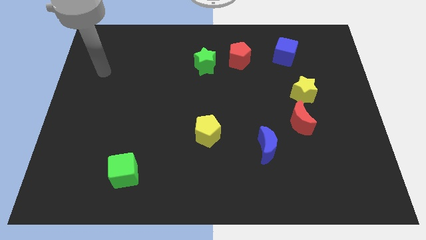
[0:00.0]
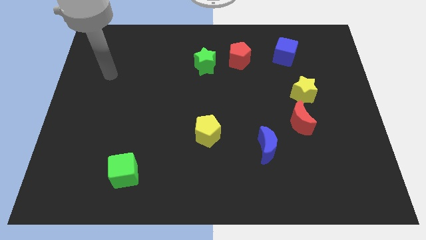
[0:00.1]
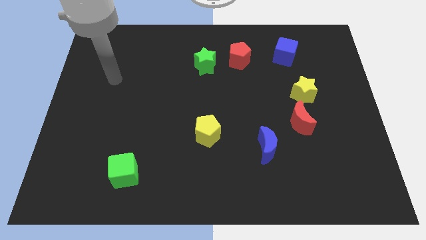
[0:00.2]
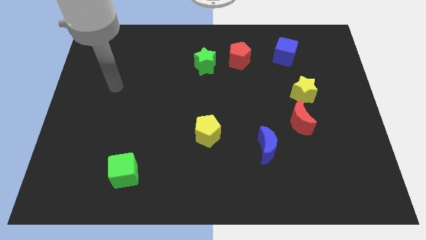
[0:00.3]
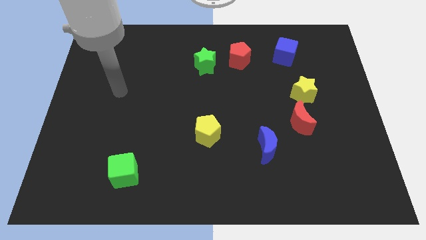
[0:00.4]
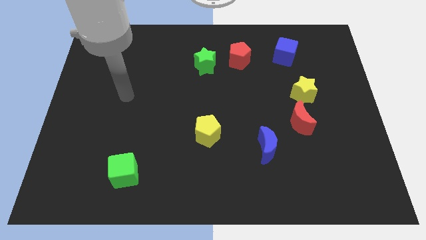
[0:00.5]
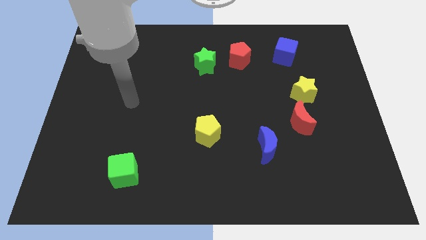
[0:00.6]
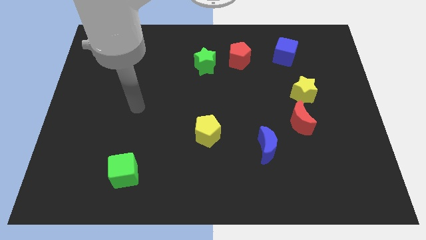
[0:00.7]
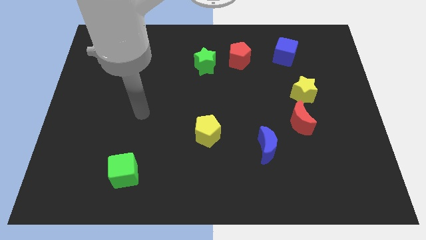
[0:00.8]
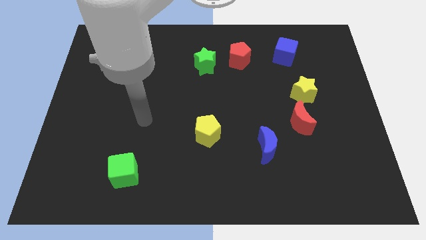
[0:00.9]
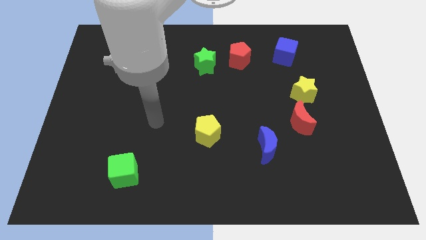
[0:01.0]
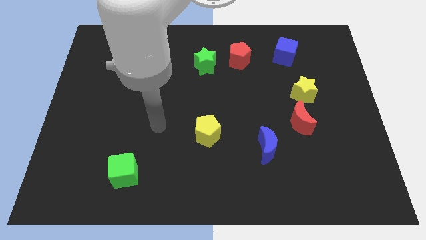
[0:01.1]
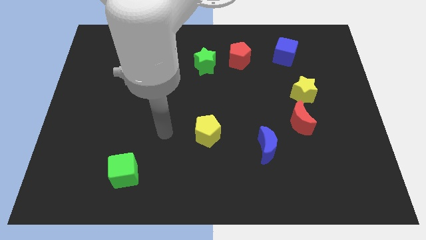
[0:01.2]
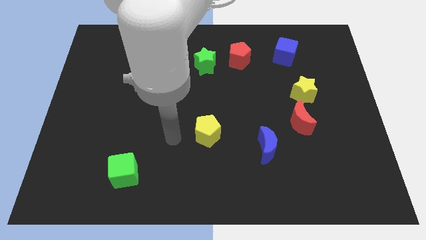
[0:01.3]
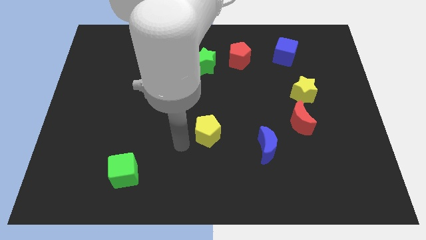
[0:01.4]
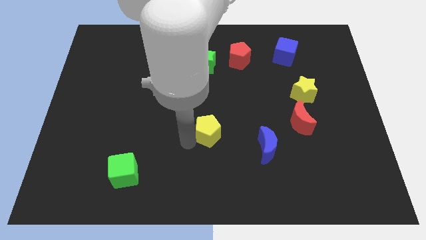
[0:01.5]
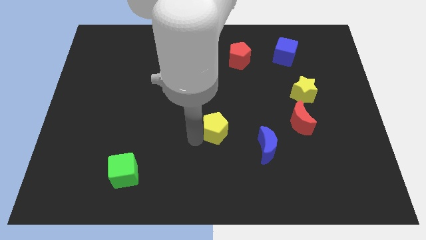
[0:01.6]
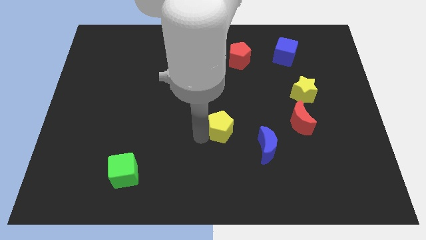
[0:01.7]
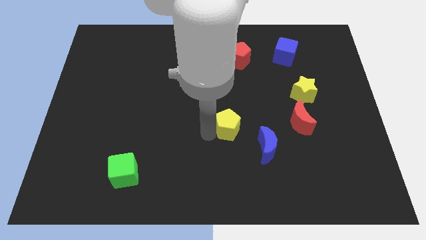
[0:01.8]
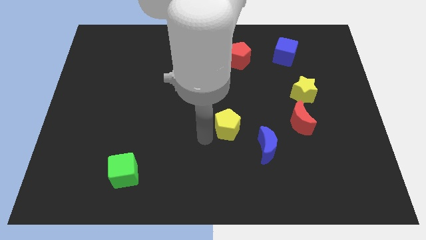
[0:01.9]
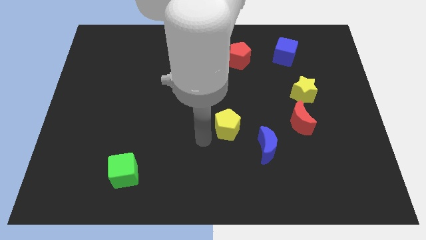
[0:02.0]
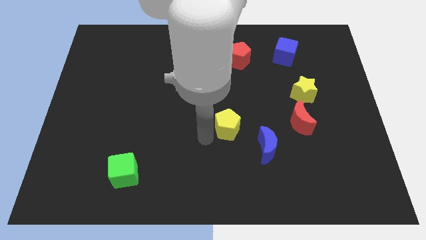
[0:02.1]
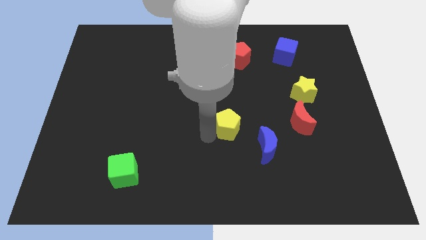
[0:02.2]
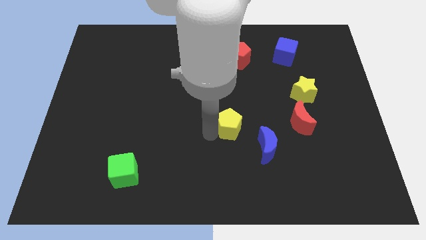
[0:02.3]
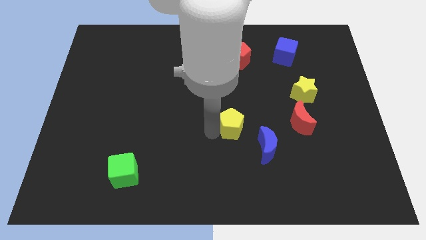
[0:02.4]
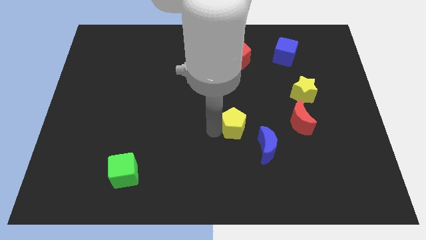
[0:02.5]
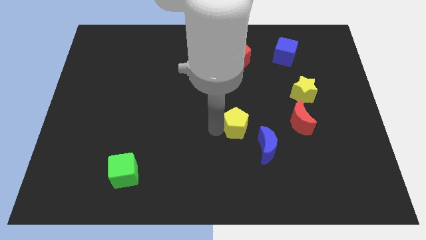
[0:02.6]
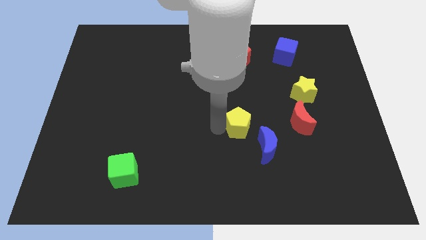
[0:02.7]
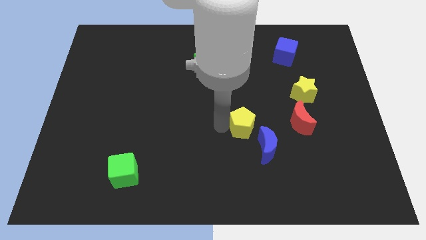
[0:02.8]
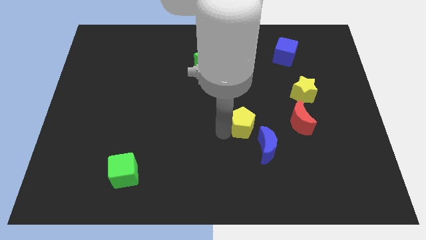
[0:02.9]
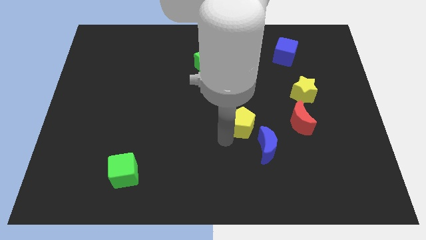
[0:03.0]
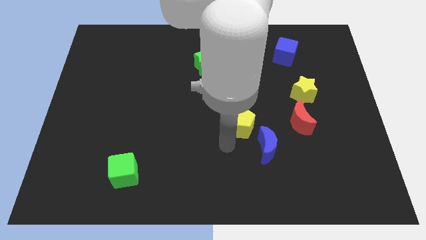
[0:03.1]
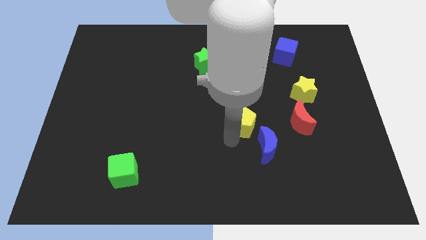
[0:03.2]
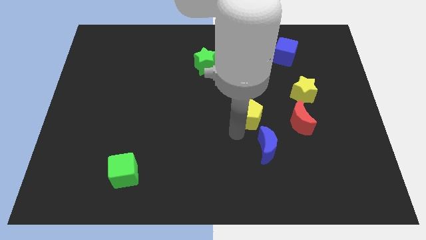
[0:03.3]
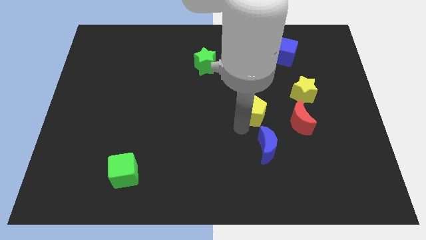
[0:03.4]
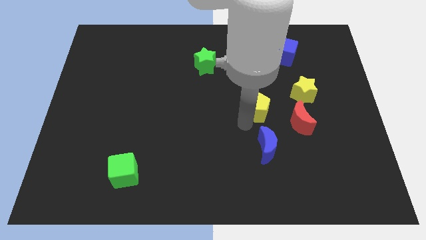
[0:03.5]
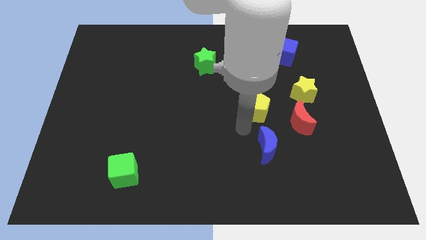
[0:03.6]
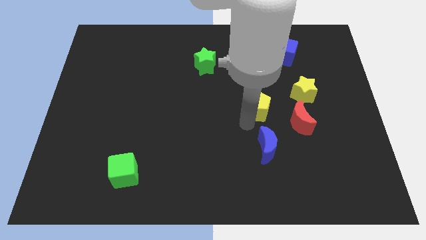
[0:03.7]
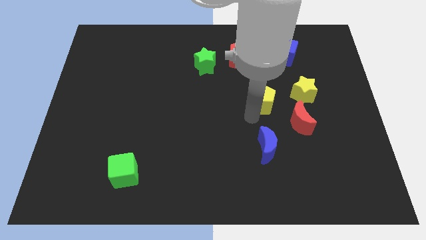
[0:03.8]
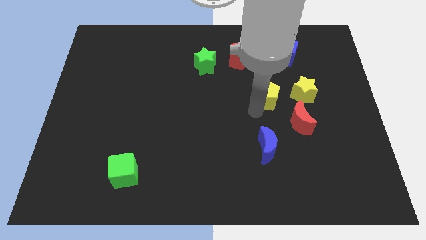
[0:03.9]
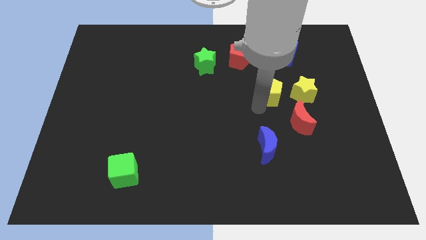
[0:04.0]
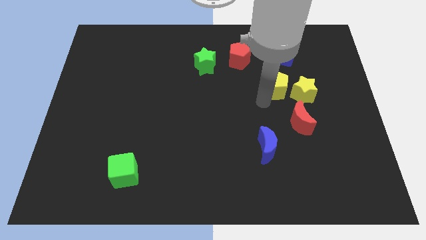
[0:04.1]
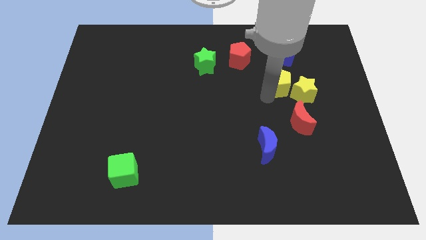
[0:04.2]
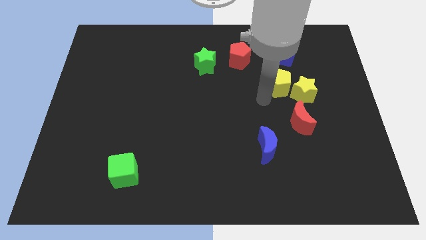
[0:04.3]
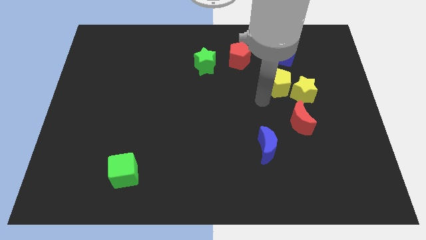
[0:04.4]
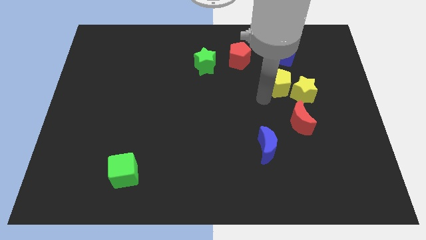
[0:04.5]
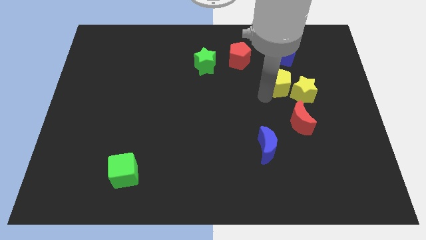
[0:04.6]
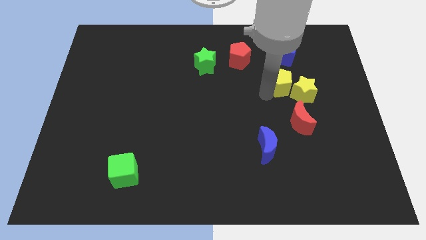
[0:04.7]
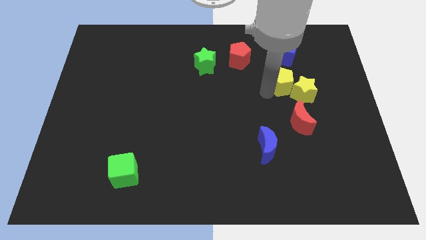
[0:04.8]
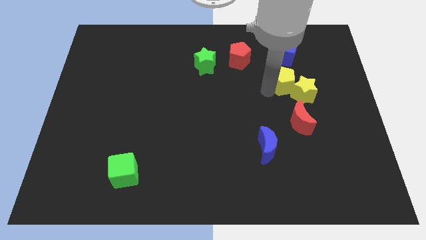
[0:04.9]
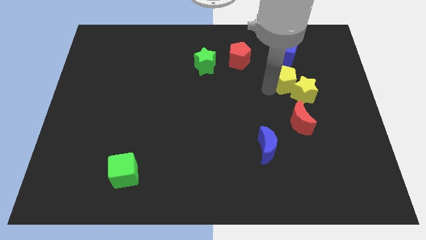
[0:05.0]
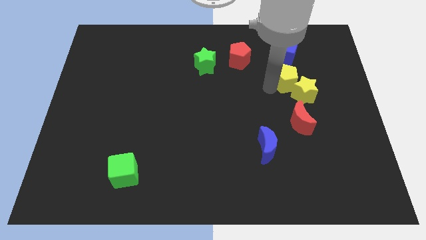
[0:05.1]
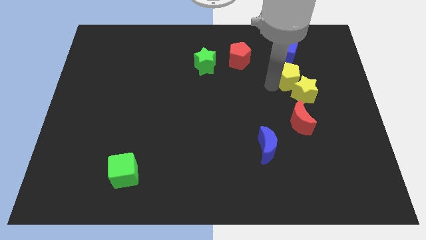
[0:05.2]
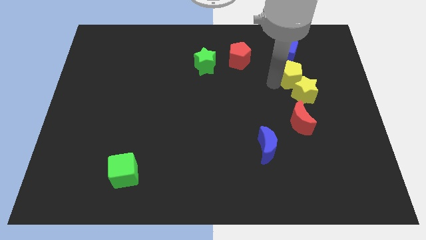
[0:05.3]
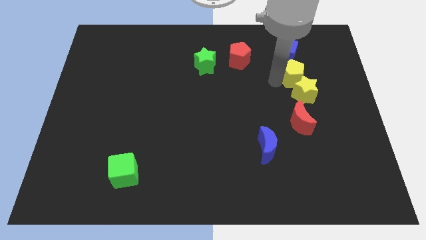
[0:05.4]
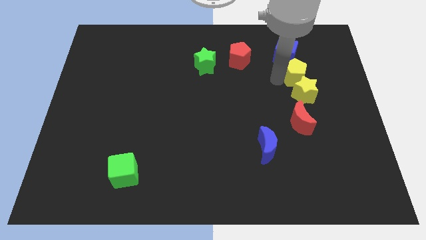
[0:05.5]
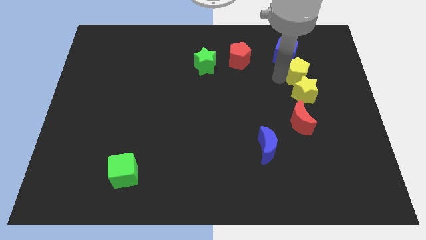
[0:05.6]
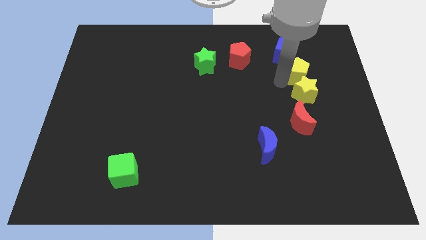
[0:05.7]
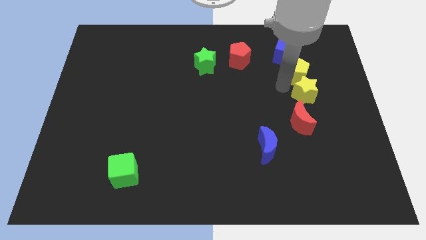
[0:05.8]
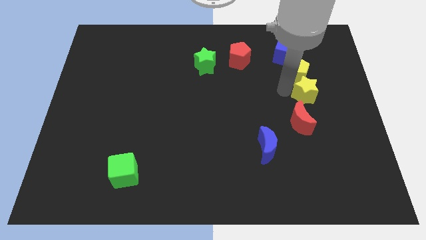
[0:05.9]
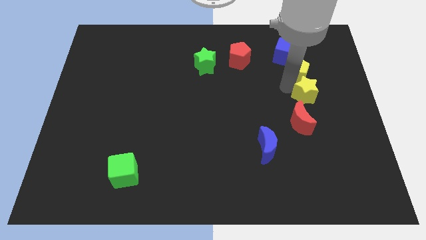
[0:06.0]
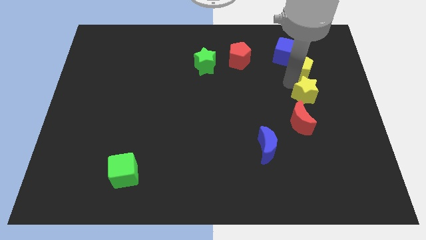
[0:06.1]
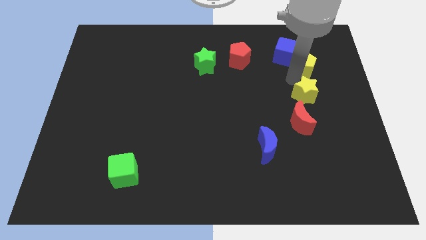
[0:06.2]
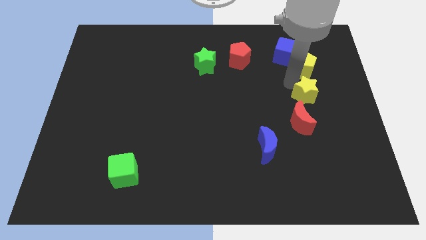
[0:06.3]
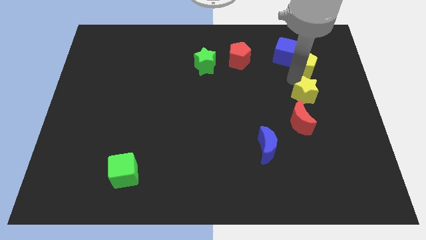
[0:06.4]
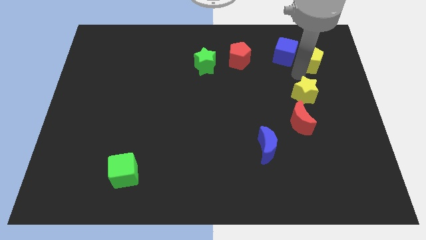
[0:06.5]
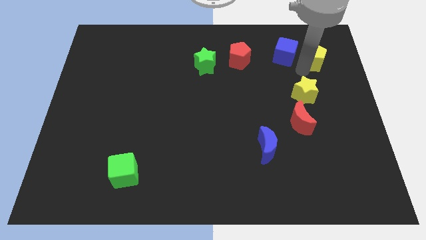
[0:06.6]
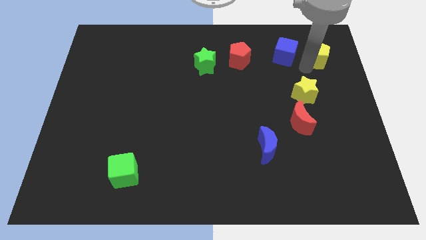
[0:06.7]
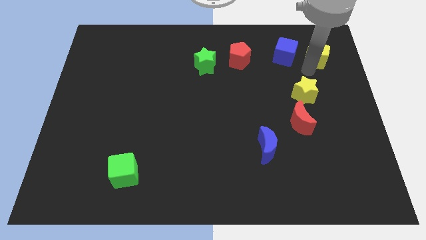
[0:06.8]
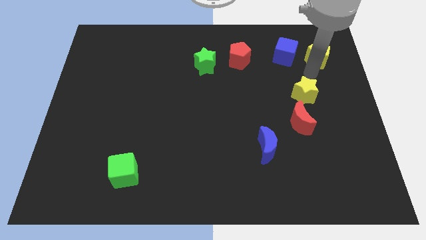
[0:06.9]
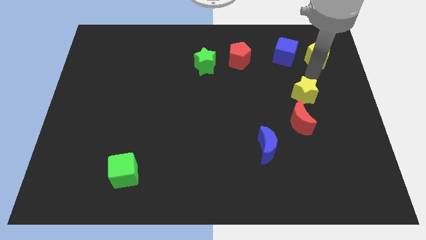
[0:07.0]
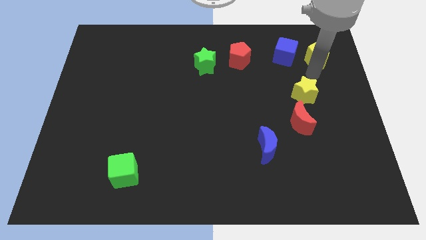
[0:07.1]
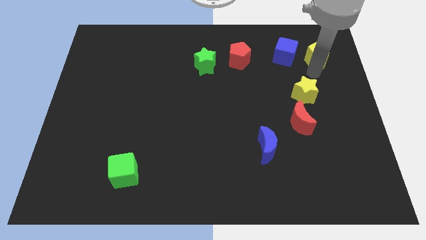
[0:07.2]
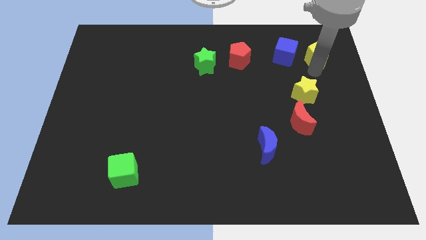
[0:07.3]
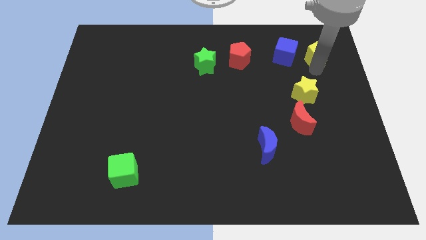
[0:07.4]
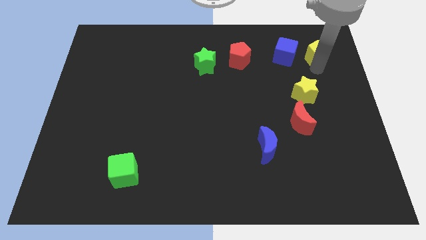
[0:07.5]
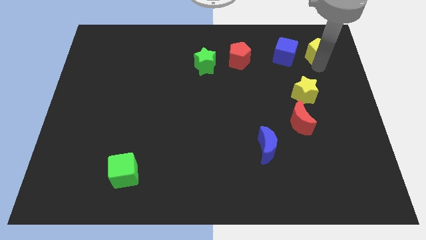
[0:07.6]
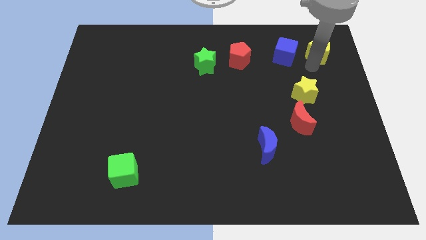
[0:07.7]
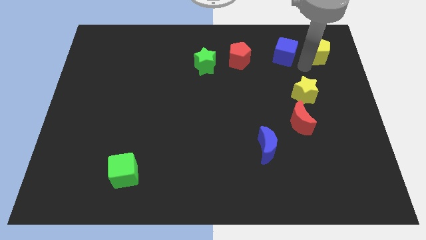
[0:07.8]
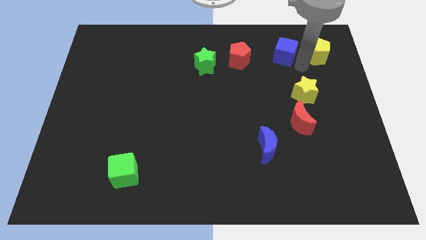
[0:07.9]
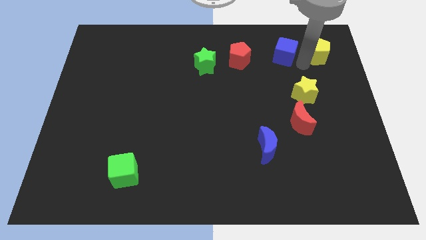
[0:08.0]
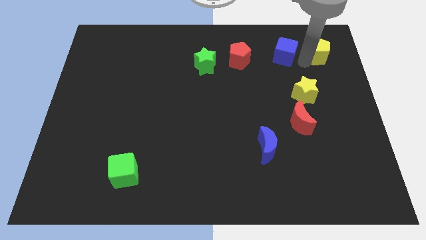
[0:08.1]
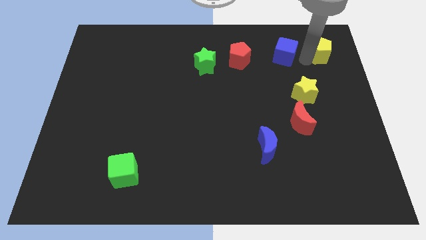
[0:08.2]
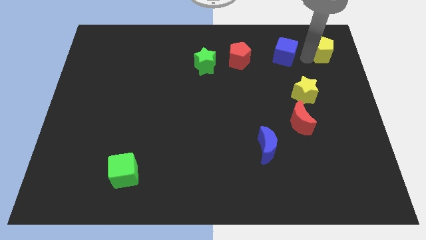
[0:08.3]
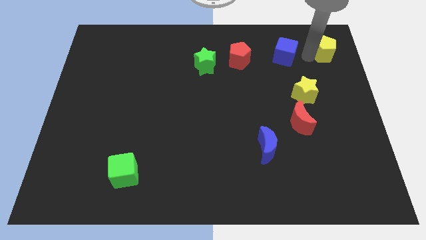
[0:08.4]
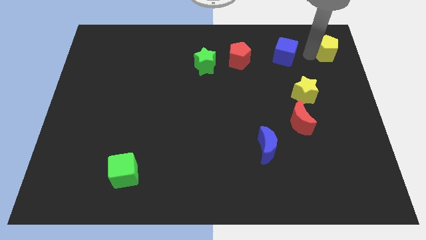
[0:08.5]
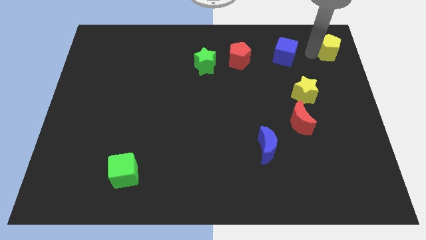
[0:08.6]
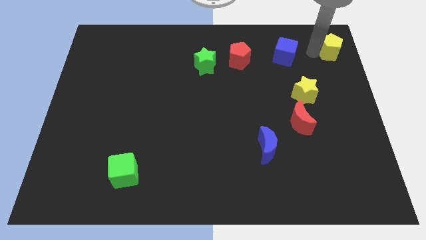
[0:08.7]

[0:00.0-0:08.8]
push the yellow pentagon to the top right of the board
